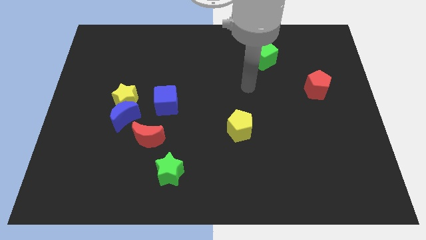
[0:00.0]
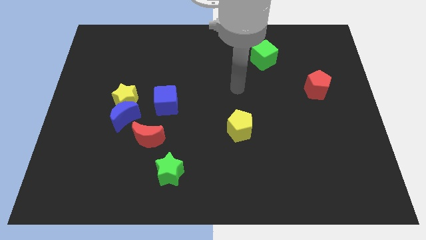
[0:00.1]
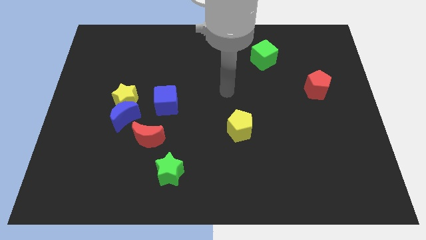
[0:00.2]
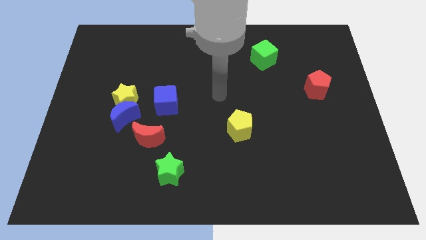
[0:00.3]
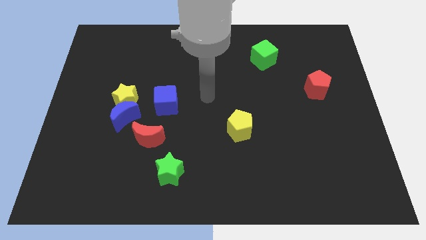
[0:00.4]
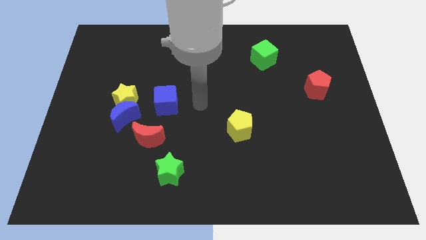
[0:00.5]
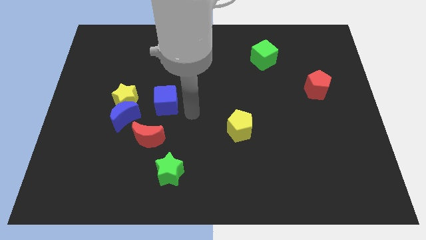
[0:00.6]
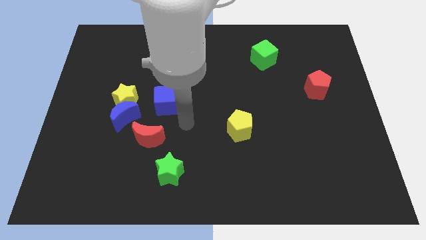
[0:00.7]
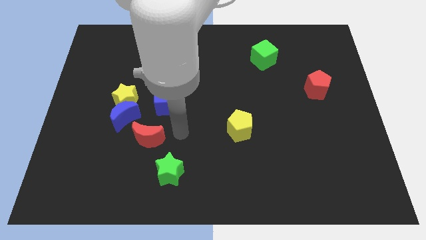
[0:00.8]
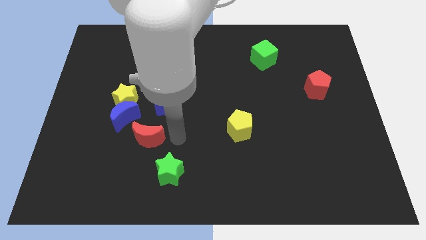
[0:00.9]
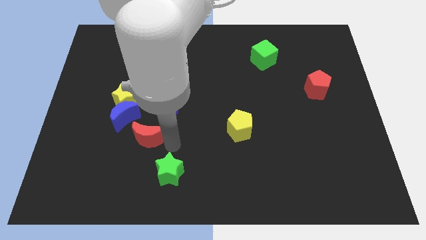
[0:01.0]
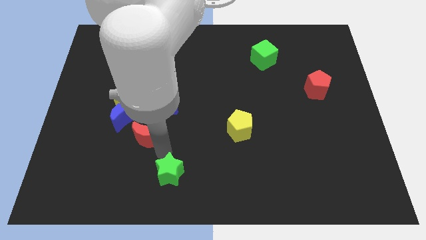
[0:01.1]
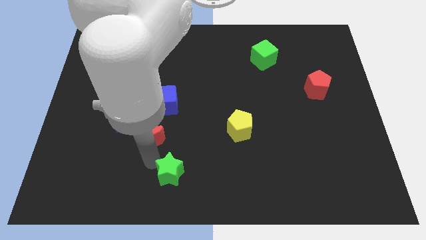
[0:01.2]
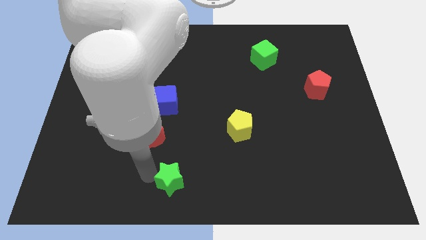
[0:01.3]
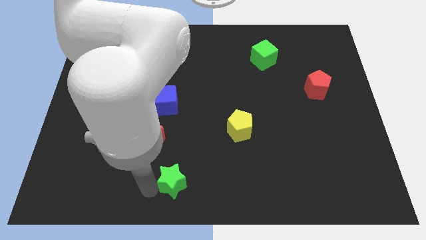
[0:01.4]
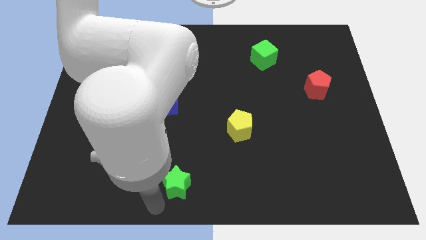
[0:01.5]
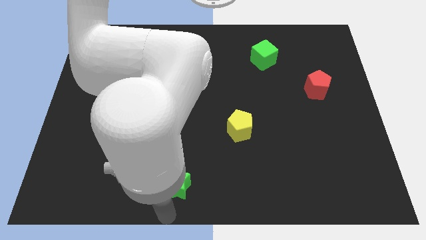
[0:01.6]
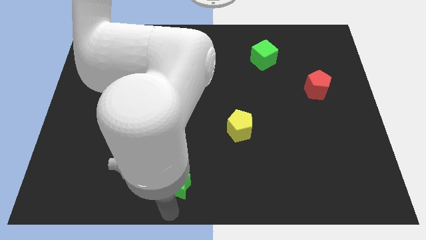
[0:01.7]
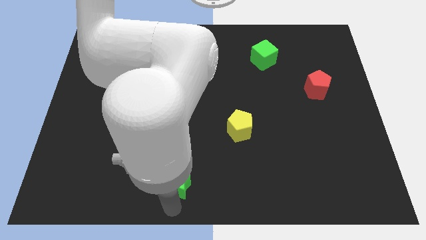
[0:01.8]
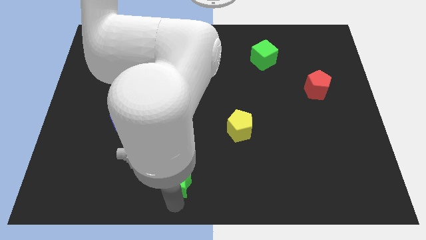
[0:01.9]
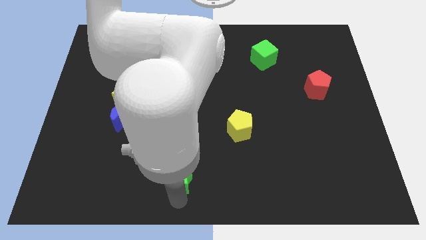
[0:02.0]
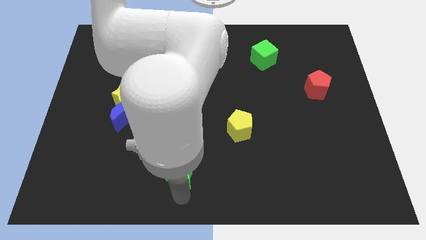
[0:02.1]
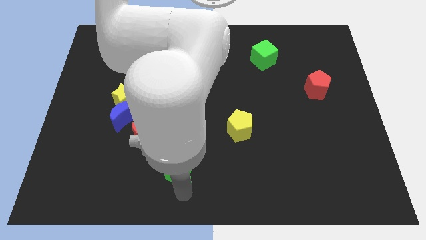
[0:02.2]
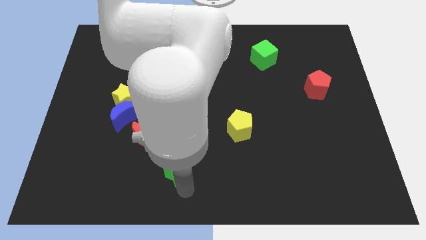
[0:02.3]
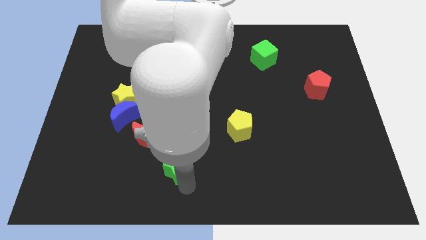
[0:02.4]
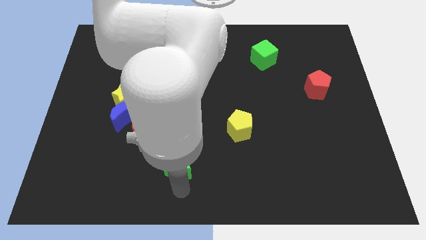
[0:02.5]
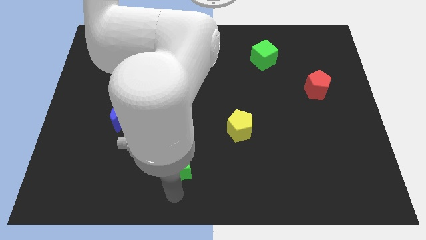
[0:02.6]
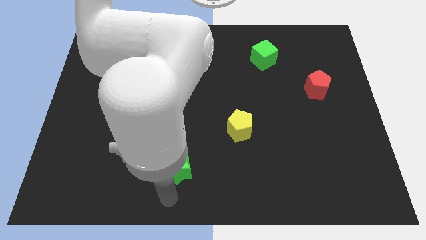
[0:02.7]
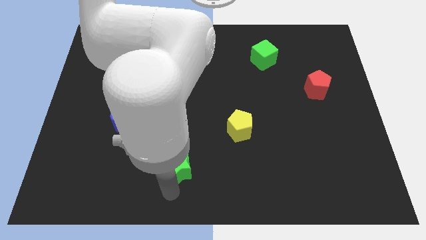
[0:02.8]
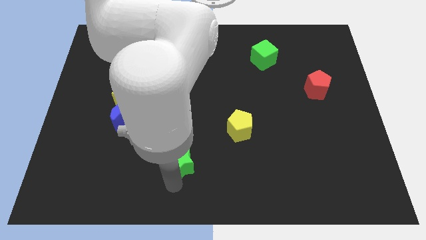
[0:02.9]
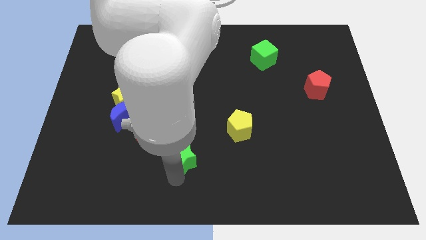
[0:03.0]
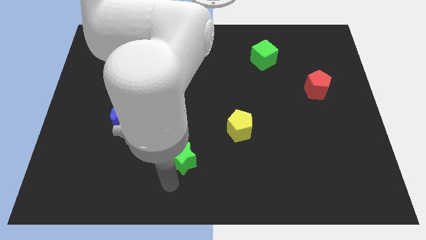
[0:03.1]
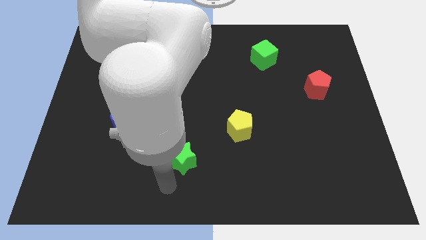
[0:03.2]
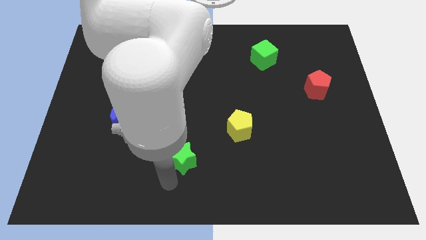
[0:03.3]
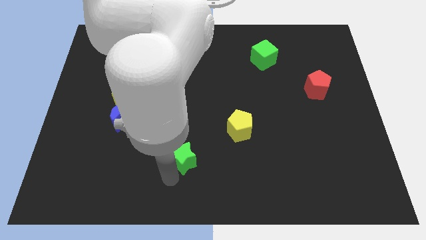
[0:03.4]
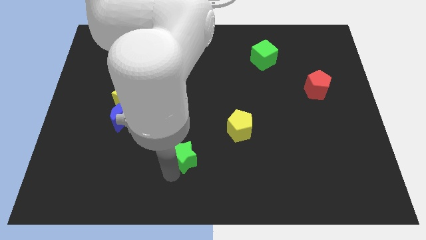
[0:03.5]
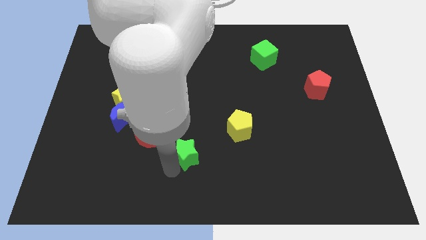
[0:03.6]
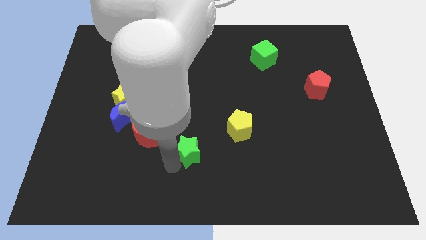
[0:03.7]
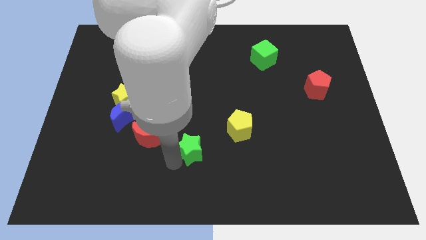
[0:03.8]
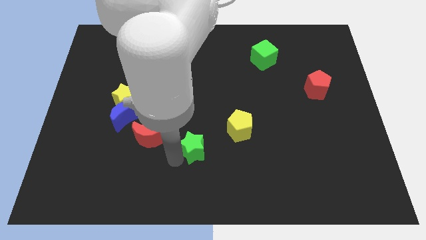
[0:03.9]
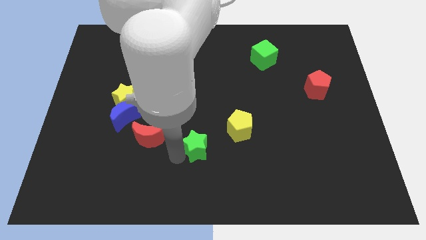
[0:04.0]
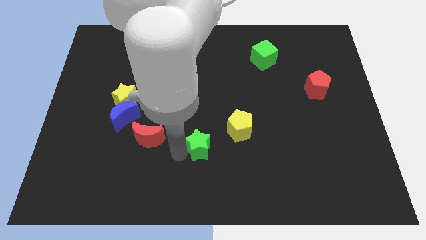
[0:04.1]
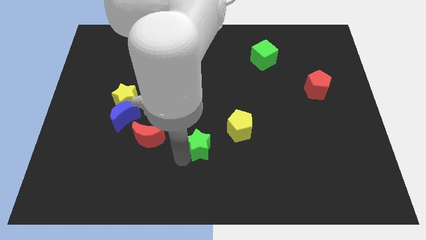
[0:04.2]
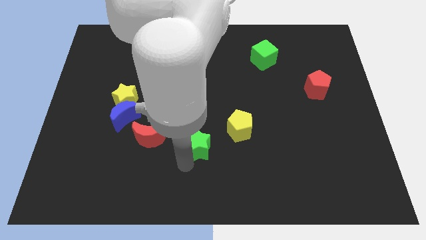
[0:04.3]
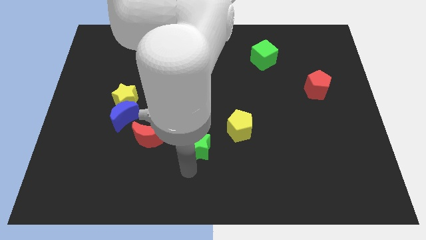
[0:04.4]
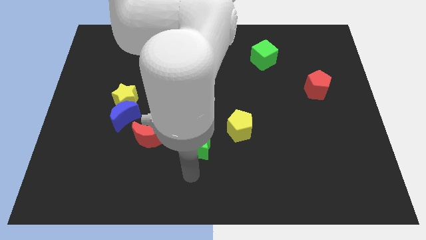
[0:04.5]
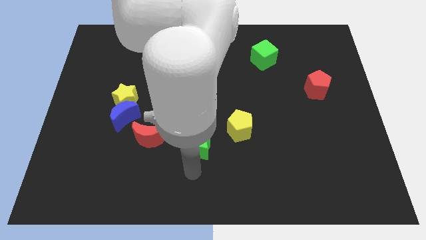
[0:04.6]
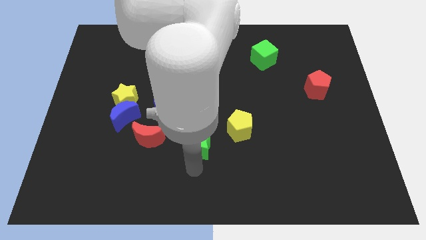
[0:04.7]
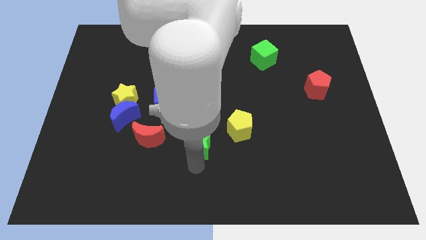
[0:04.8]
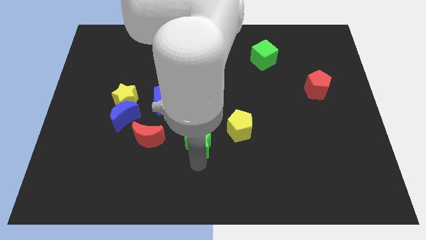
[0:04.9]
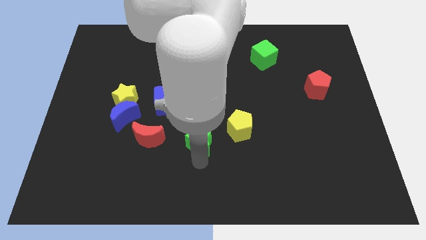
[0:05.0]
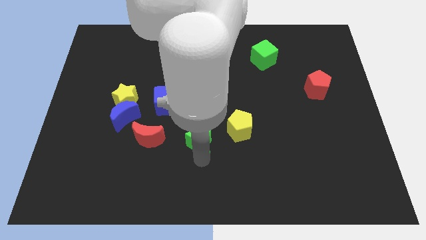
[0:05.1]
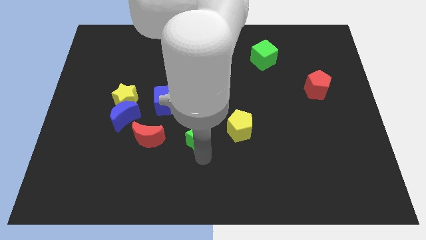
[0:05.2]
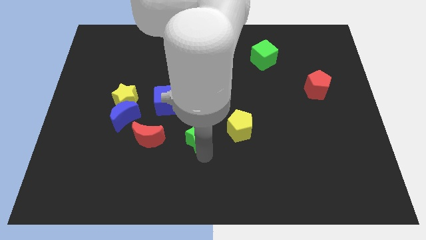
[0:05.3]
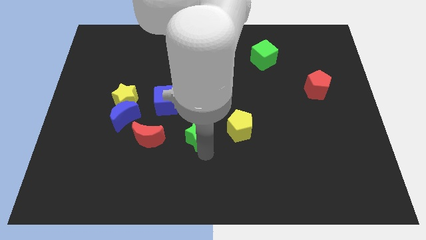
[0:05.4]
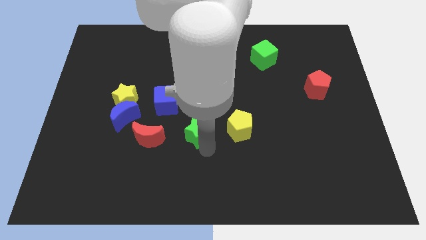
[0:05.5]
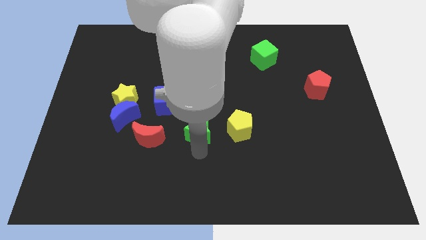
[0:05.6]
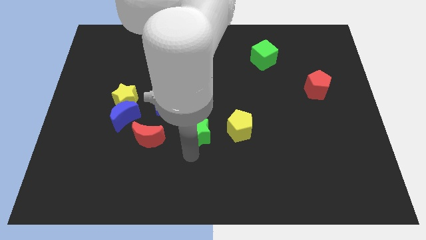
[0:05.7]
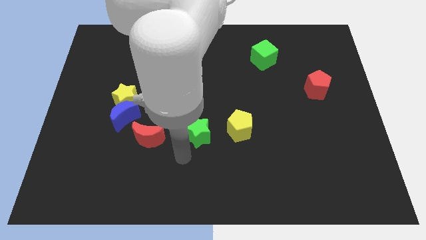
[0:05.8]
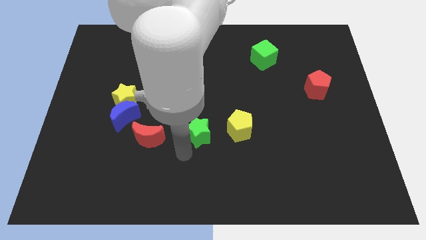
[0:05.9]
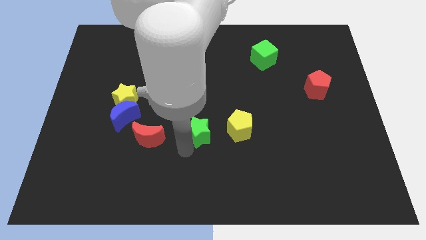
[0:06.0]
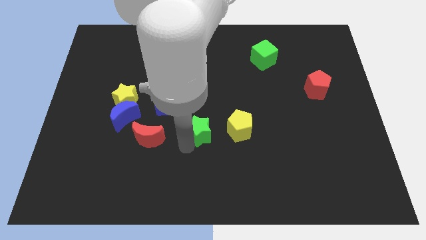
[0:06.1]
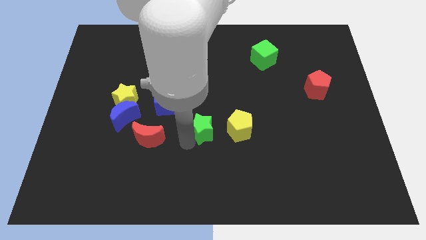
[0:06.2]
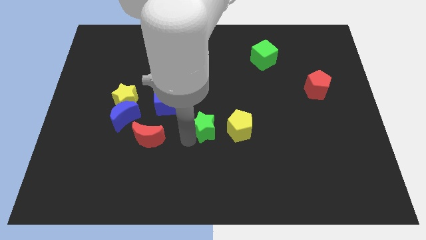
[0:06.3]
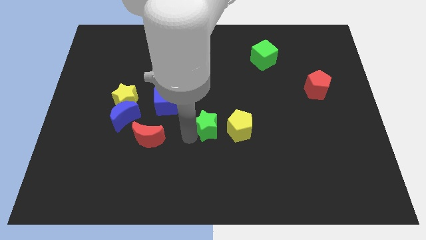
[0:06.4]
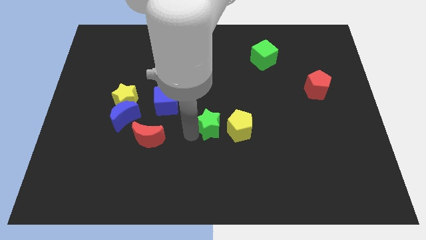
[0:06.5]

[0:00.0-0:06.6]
move the green star to the top left of the yellow pentagon

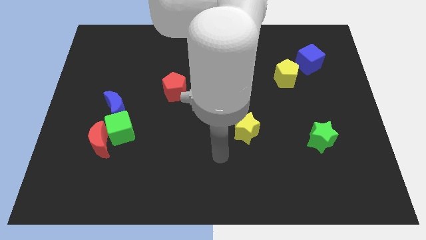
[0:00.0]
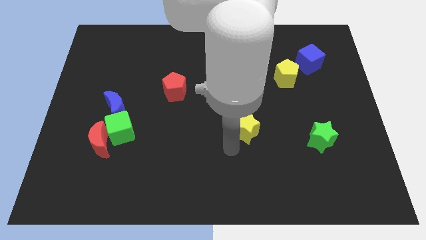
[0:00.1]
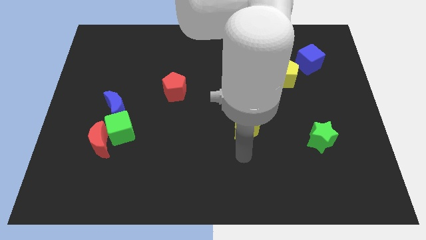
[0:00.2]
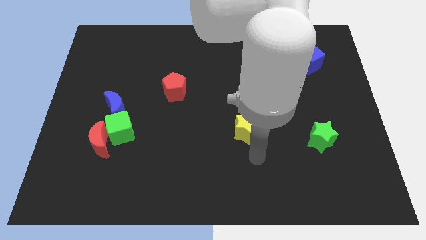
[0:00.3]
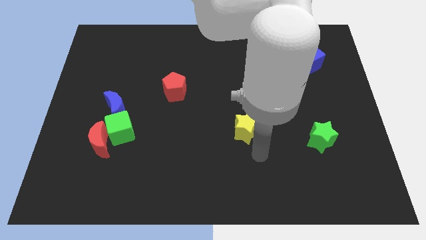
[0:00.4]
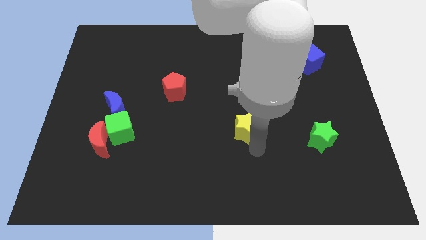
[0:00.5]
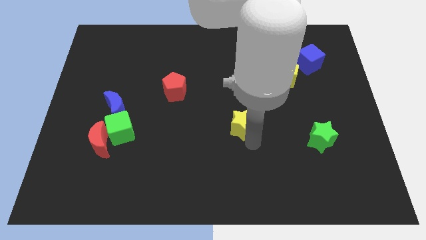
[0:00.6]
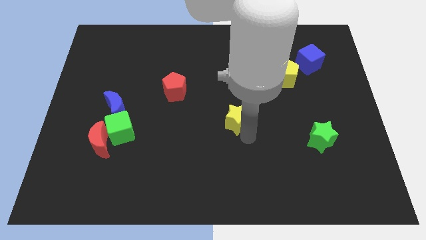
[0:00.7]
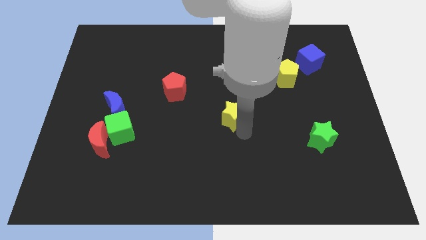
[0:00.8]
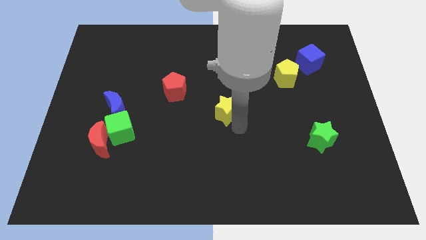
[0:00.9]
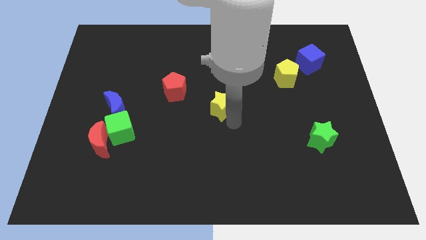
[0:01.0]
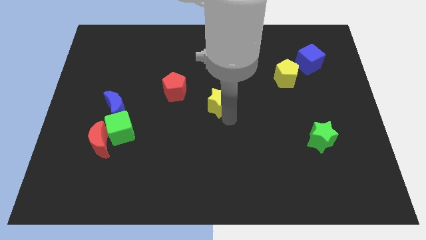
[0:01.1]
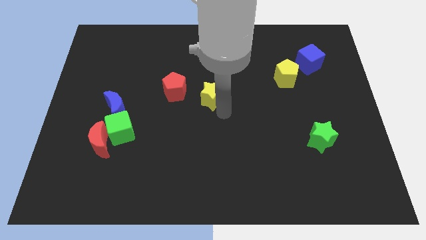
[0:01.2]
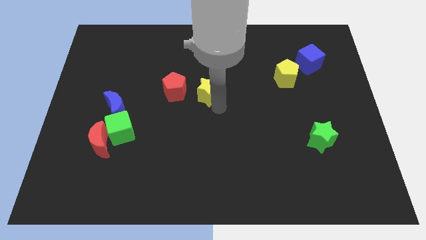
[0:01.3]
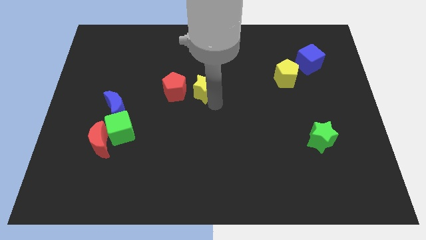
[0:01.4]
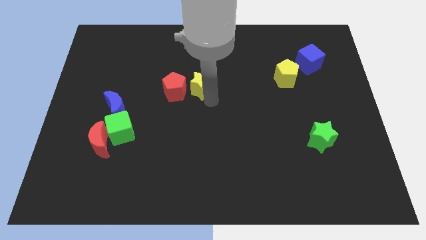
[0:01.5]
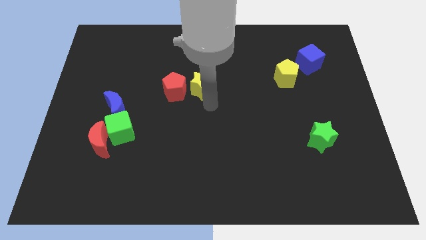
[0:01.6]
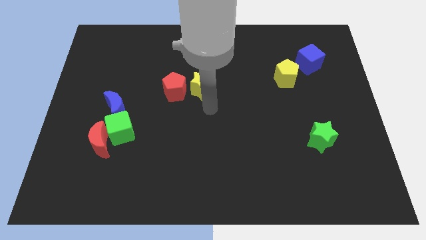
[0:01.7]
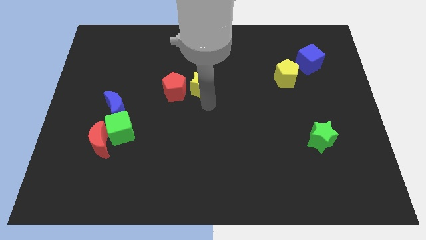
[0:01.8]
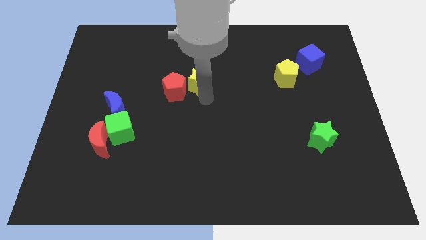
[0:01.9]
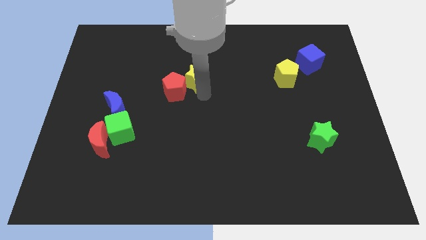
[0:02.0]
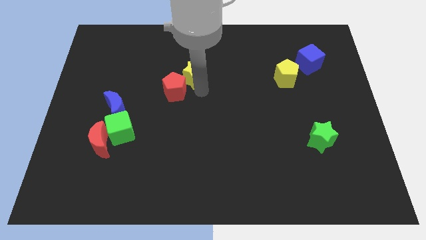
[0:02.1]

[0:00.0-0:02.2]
put the yellow star above the red pentagon
